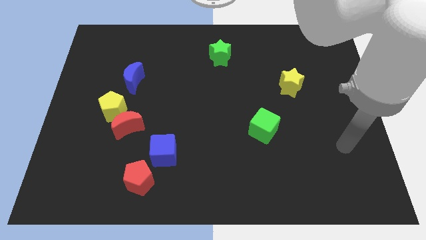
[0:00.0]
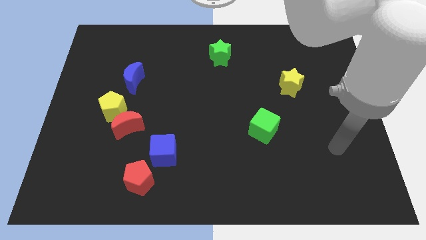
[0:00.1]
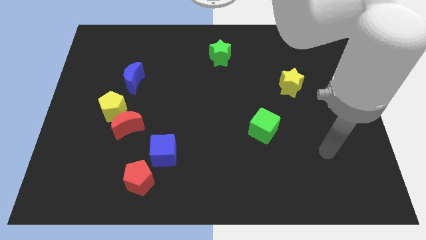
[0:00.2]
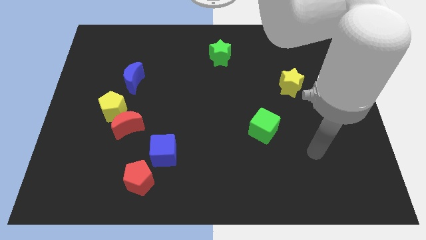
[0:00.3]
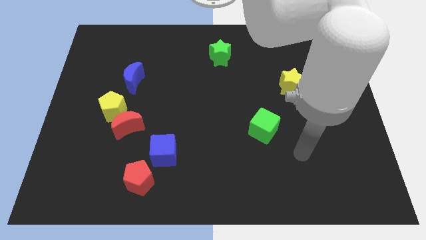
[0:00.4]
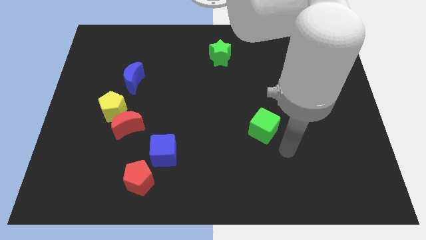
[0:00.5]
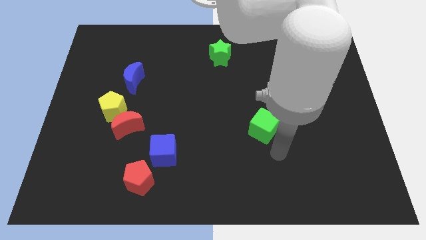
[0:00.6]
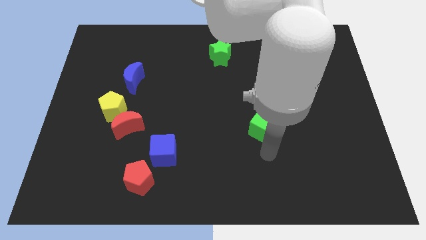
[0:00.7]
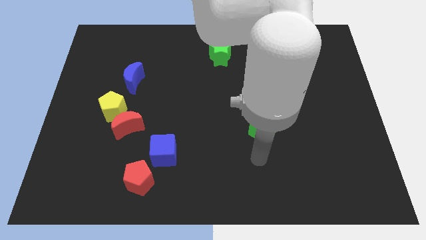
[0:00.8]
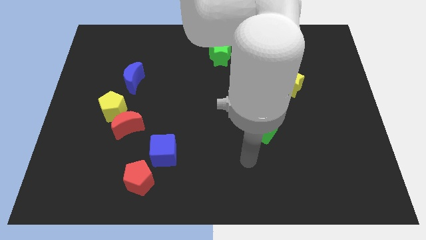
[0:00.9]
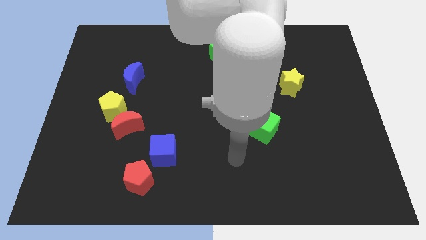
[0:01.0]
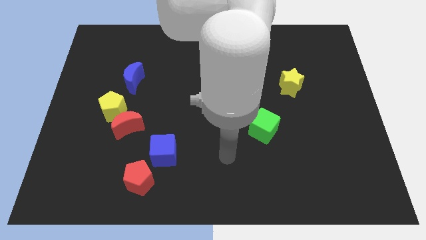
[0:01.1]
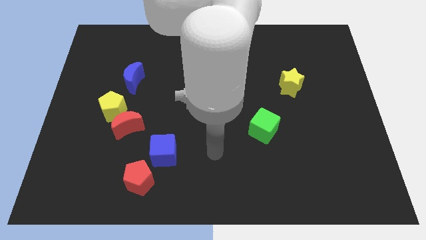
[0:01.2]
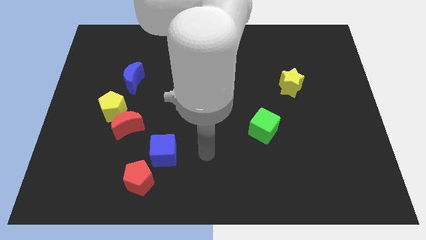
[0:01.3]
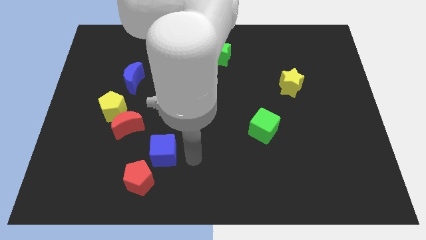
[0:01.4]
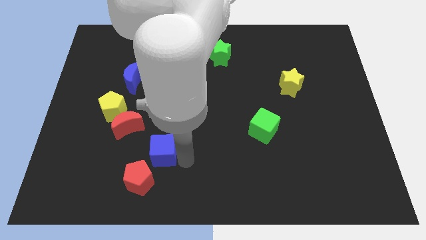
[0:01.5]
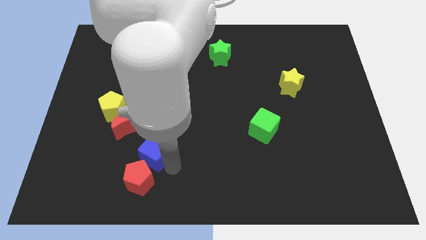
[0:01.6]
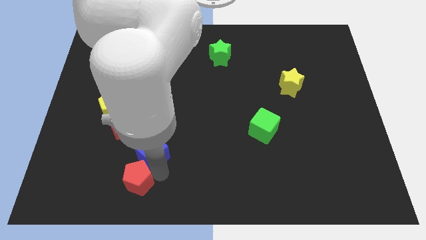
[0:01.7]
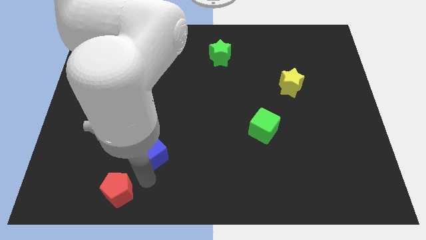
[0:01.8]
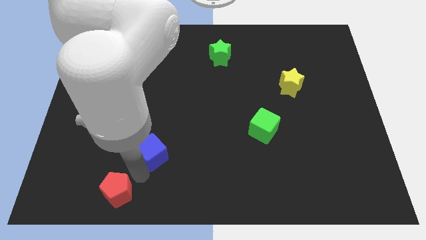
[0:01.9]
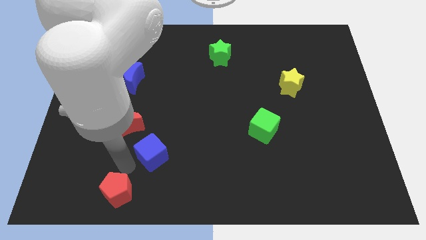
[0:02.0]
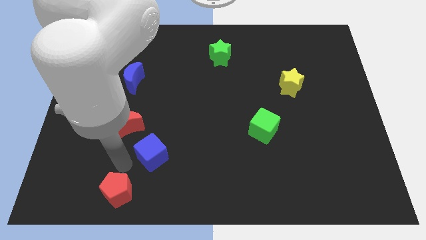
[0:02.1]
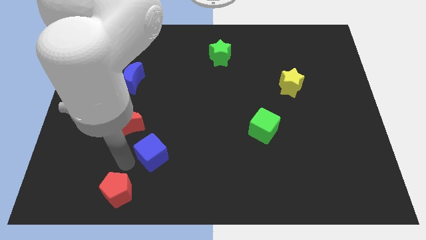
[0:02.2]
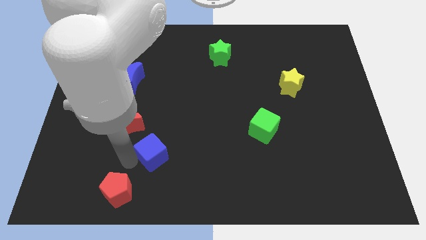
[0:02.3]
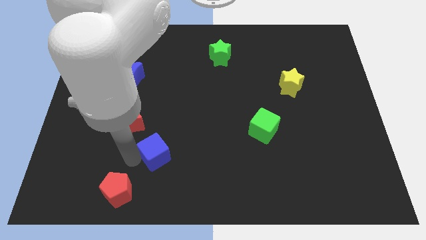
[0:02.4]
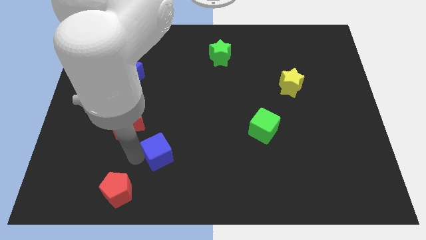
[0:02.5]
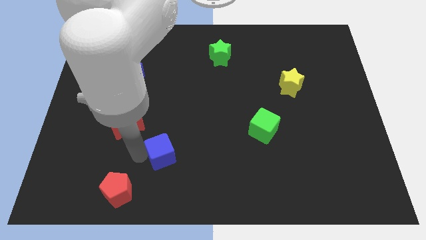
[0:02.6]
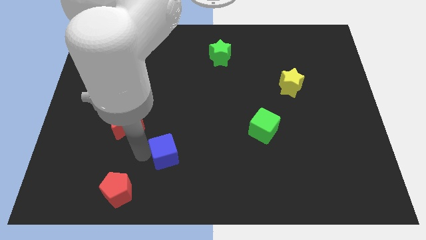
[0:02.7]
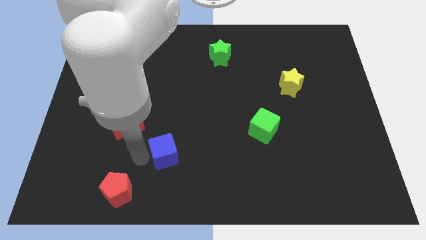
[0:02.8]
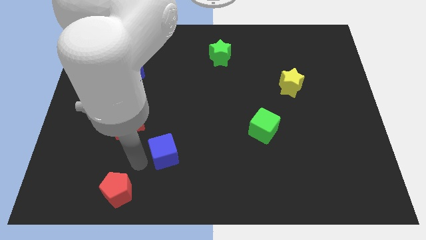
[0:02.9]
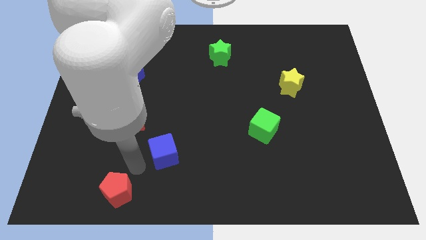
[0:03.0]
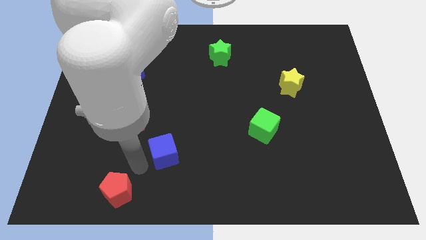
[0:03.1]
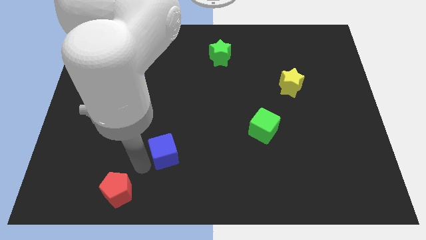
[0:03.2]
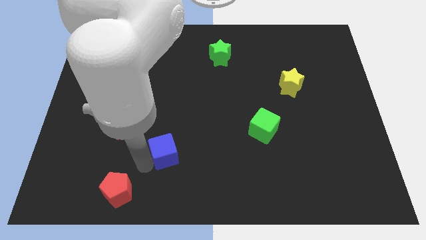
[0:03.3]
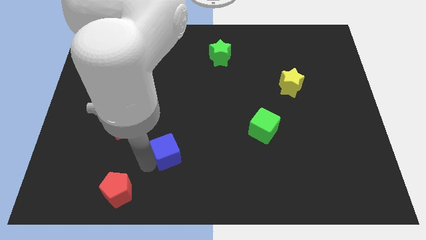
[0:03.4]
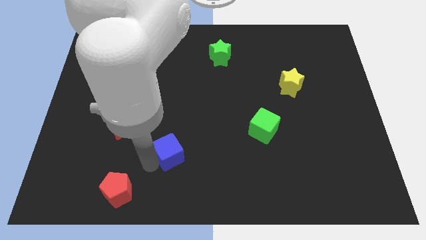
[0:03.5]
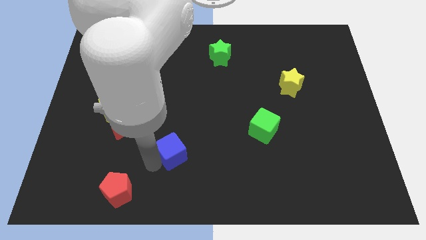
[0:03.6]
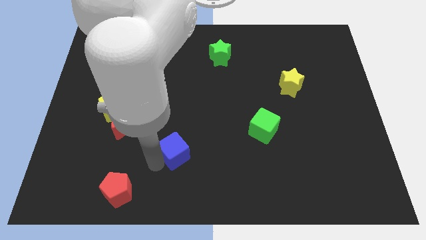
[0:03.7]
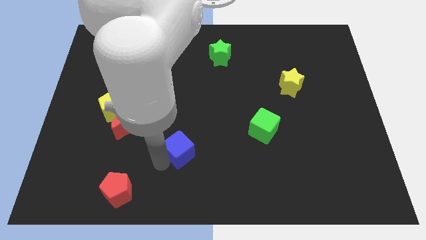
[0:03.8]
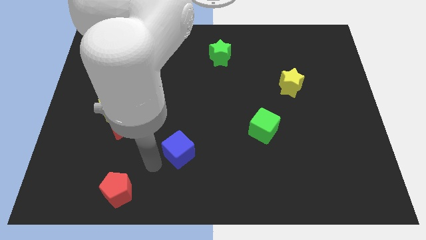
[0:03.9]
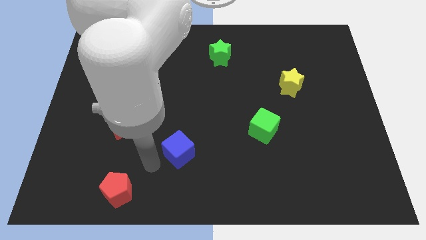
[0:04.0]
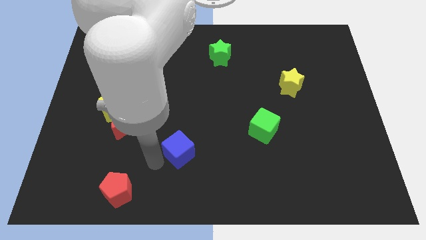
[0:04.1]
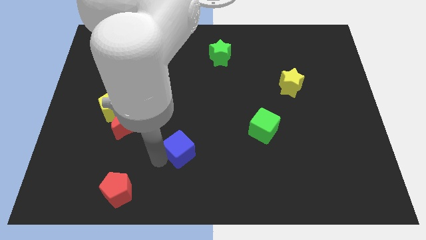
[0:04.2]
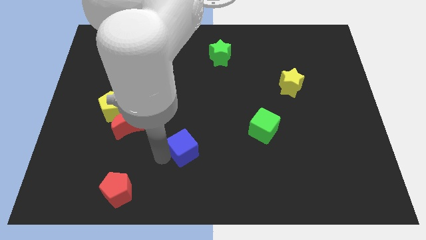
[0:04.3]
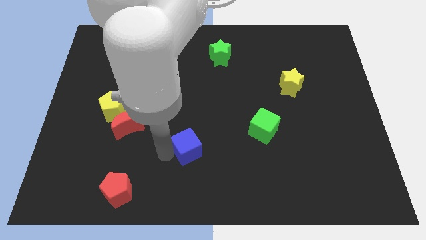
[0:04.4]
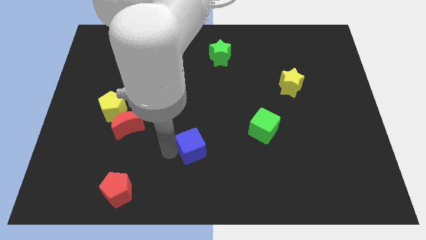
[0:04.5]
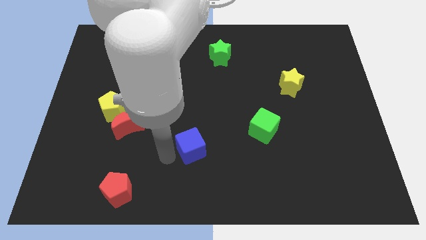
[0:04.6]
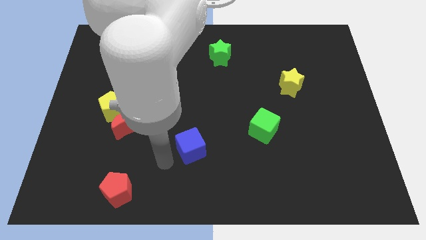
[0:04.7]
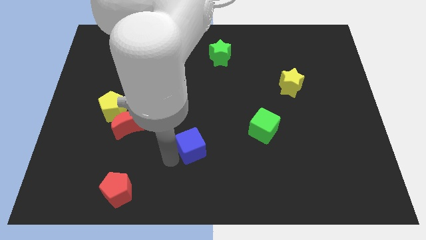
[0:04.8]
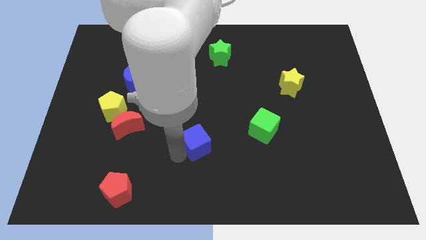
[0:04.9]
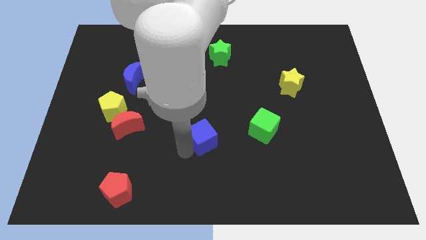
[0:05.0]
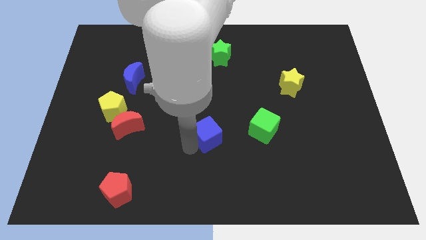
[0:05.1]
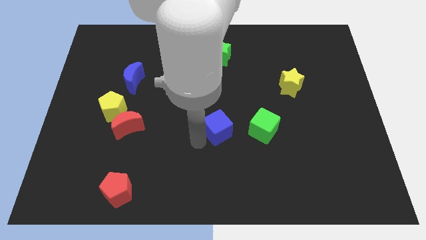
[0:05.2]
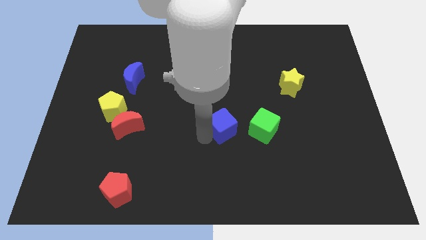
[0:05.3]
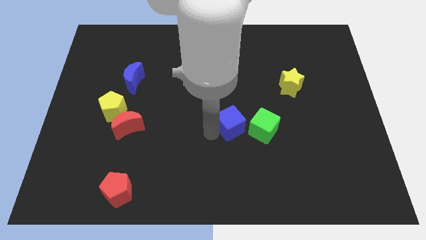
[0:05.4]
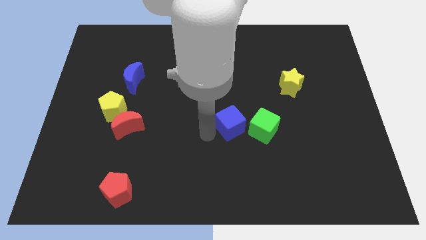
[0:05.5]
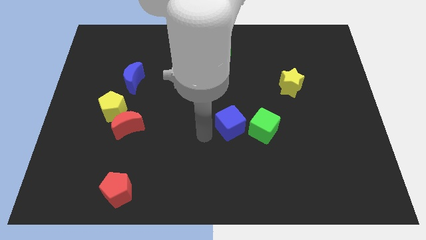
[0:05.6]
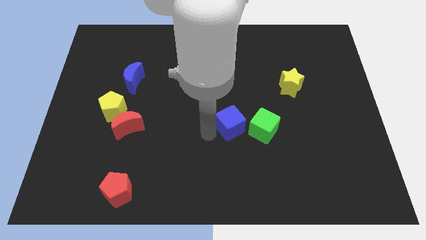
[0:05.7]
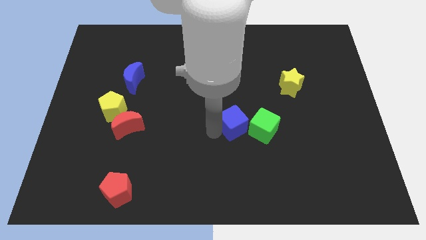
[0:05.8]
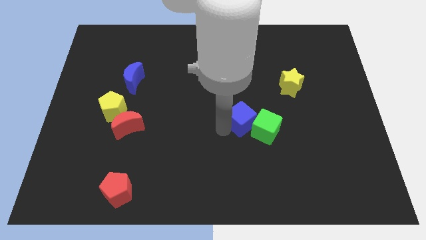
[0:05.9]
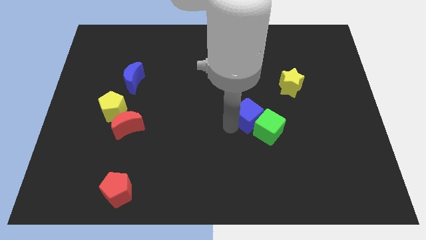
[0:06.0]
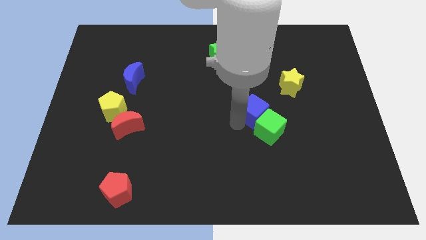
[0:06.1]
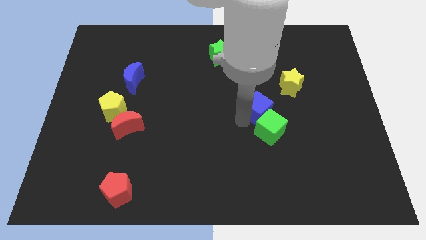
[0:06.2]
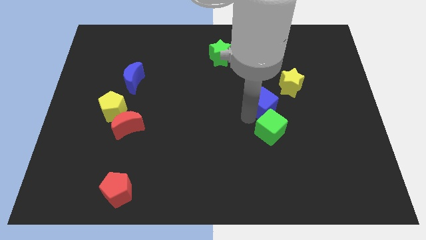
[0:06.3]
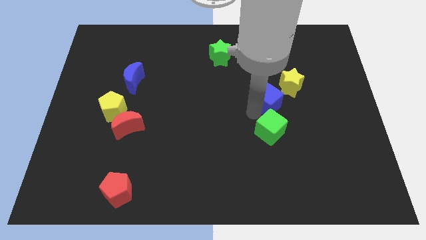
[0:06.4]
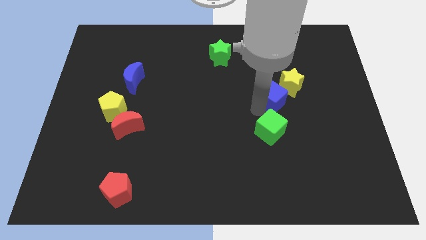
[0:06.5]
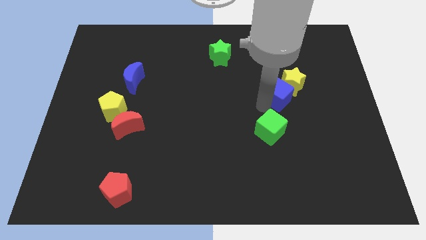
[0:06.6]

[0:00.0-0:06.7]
push the blue cube next to the yellow star

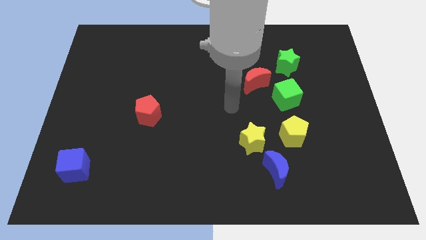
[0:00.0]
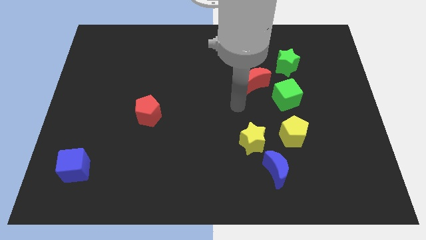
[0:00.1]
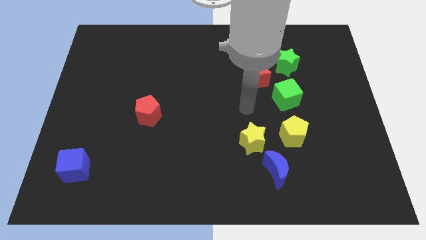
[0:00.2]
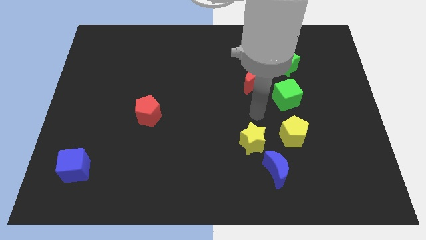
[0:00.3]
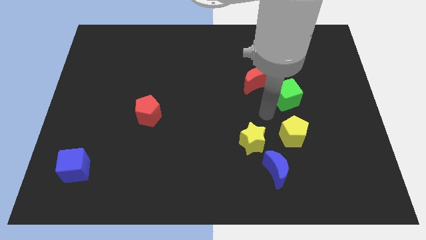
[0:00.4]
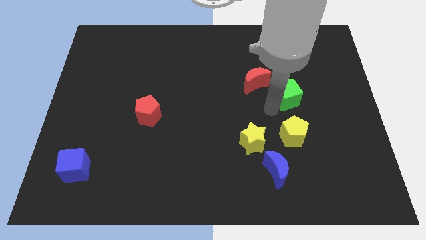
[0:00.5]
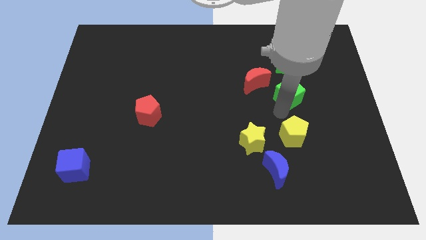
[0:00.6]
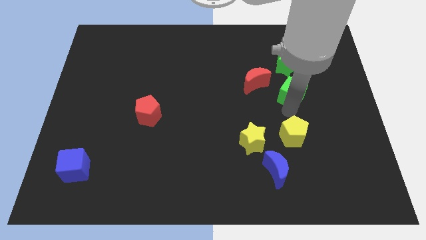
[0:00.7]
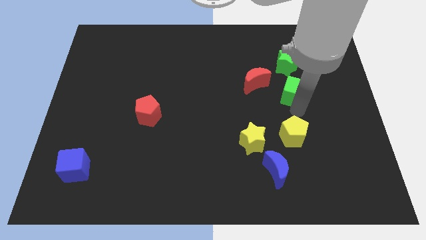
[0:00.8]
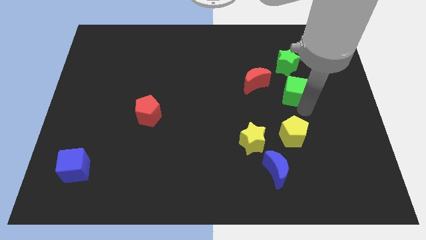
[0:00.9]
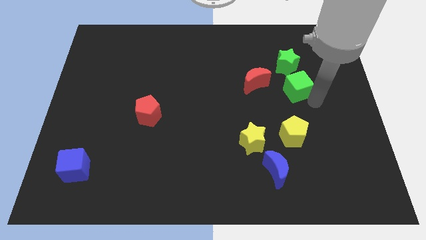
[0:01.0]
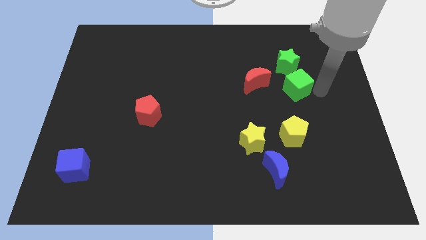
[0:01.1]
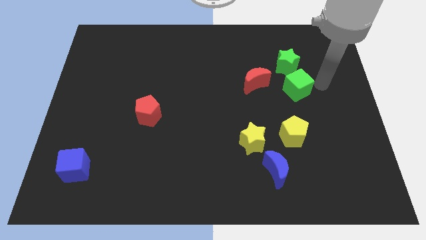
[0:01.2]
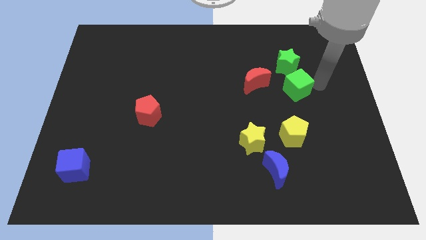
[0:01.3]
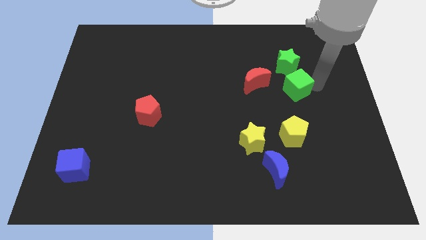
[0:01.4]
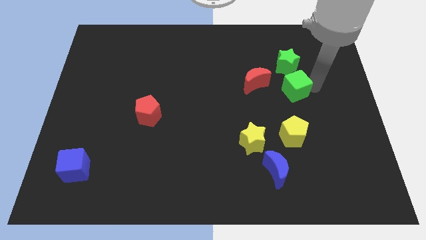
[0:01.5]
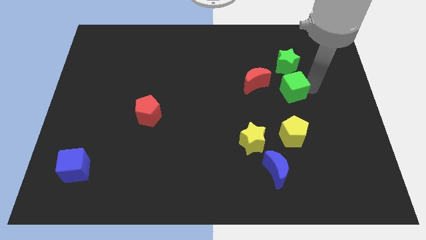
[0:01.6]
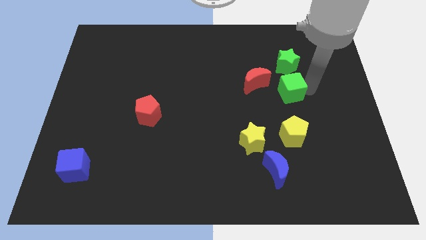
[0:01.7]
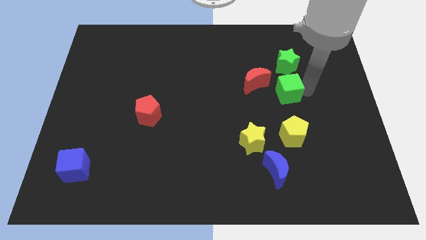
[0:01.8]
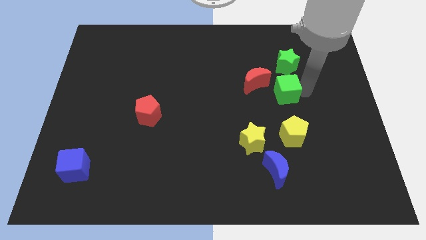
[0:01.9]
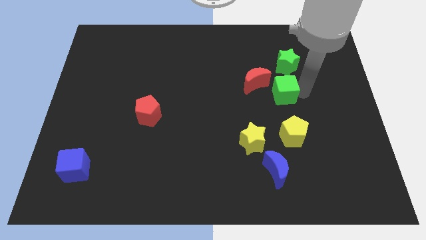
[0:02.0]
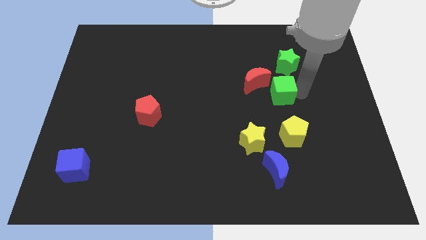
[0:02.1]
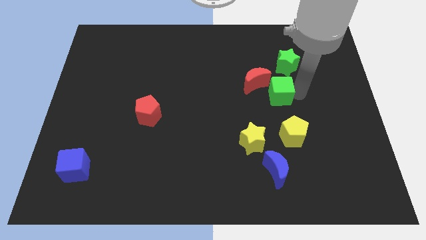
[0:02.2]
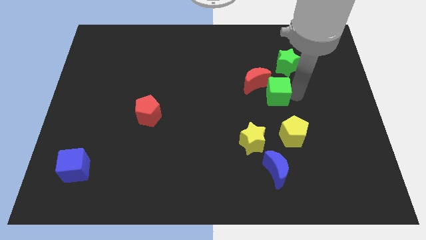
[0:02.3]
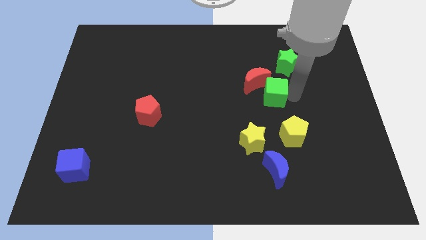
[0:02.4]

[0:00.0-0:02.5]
put the green cube next to the red moon
